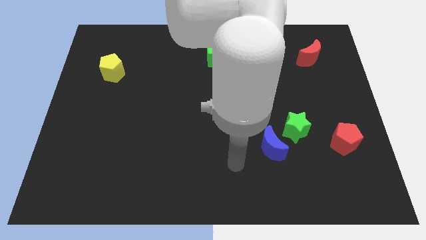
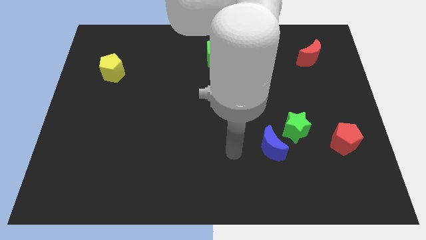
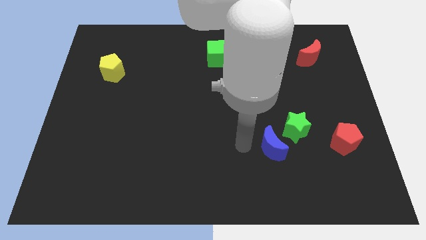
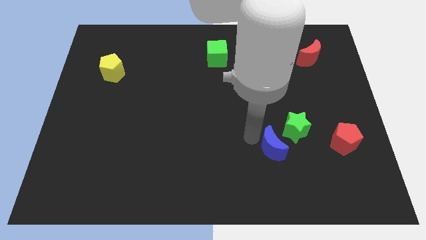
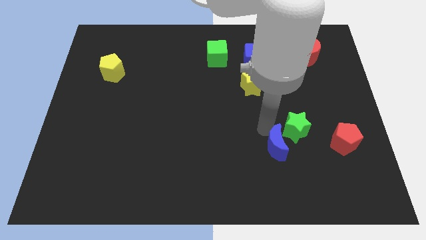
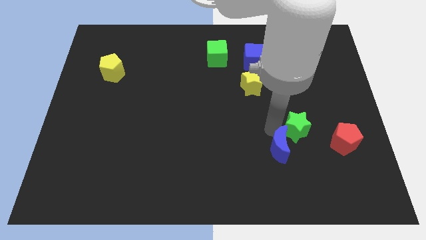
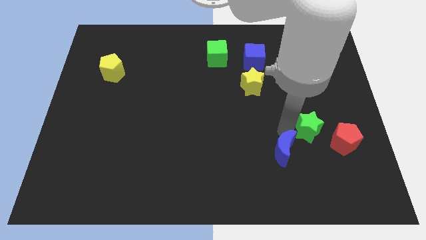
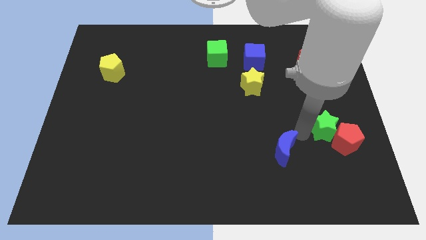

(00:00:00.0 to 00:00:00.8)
move the blue moon away from the green star

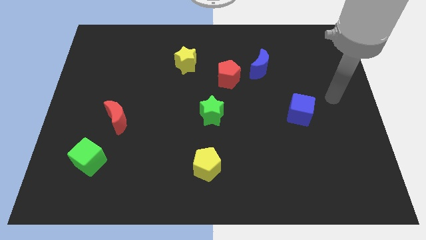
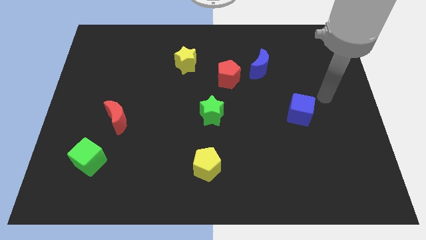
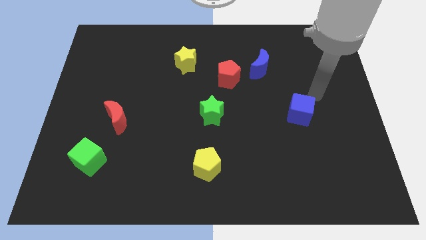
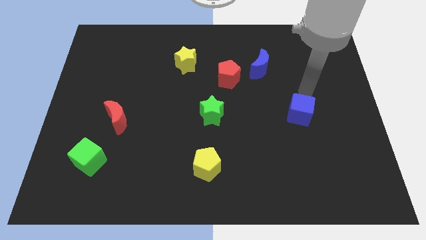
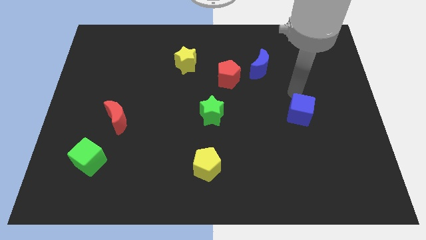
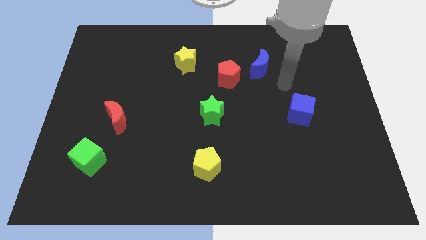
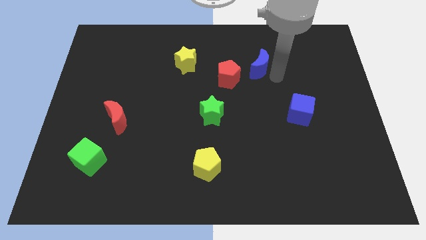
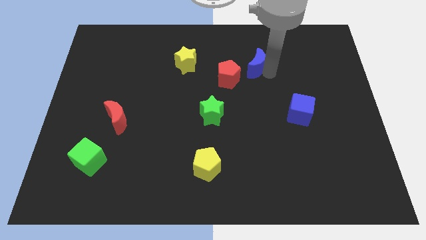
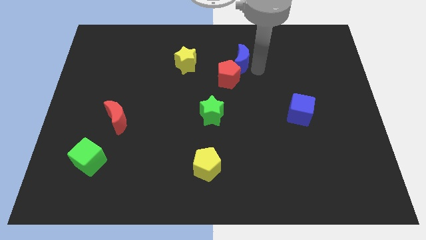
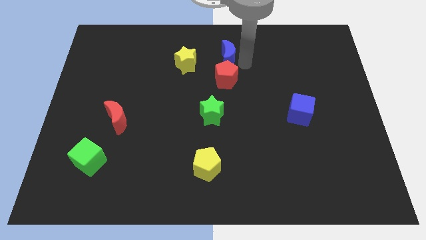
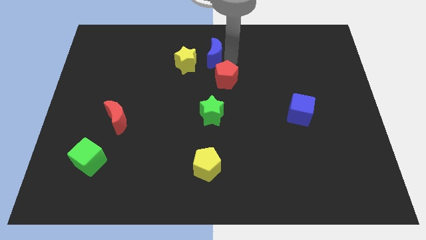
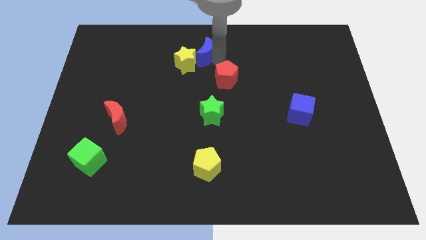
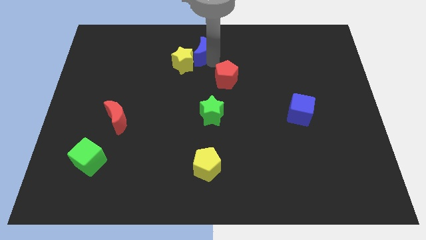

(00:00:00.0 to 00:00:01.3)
separate the red pentagon from the blue moon

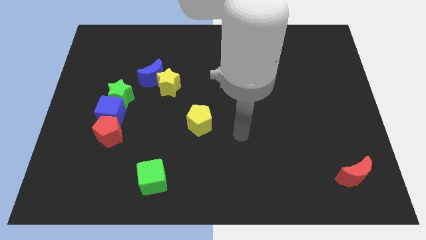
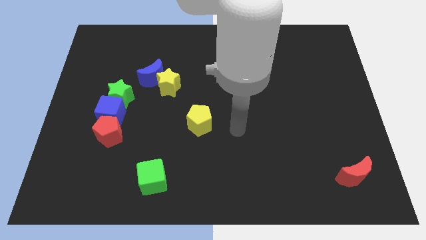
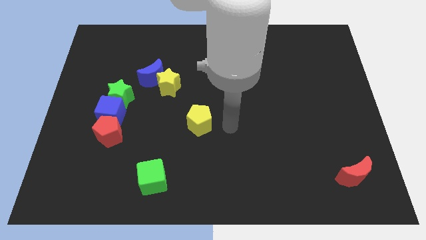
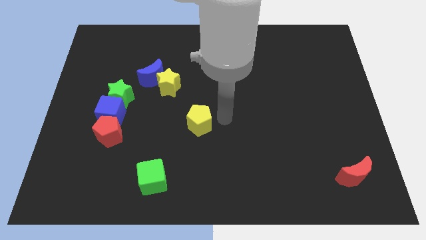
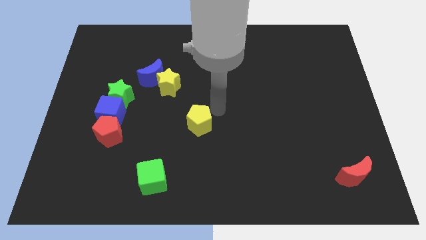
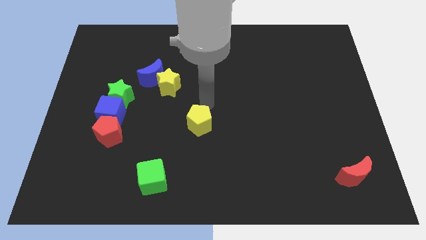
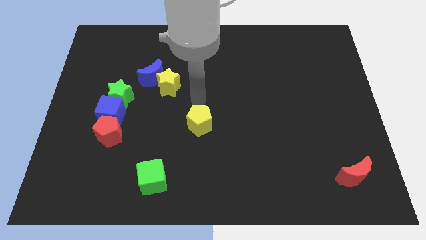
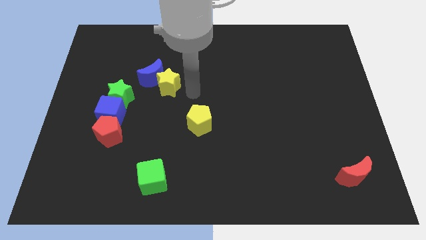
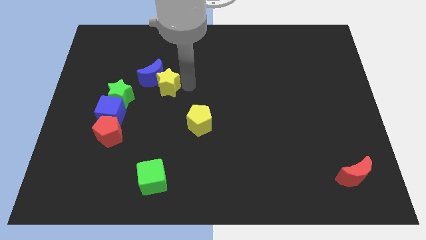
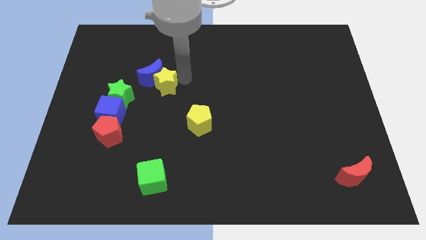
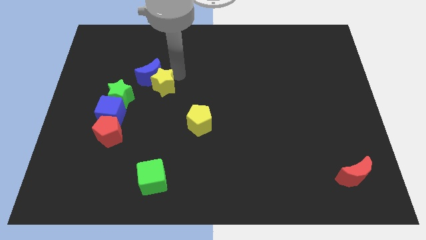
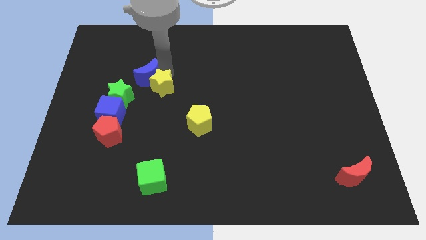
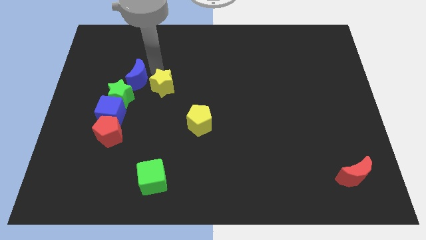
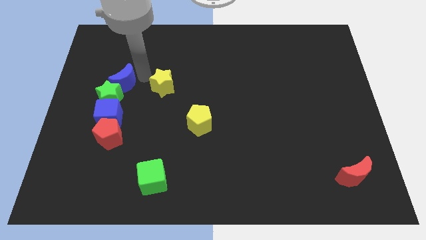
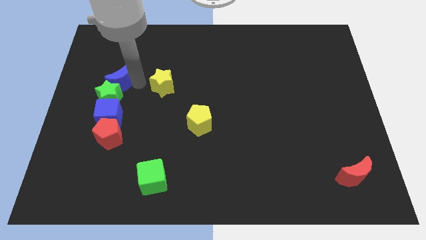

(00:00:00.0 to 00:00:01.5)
pull the yellow star apart from the blue moon

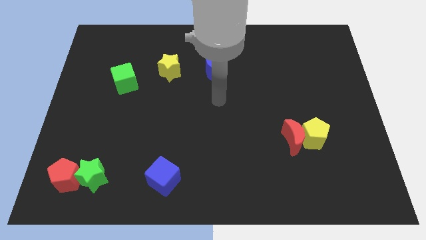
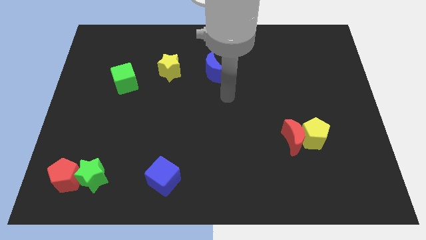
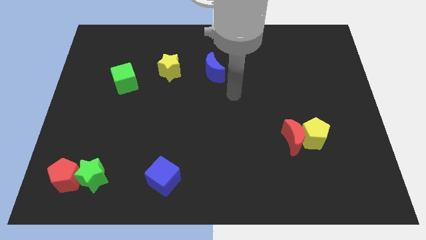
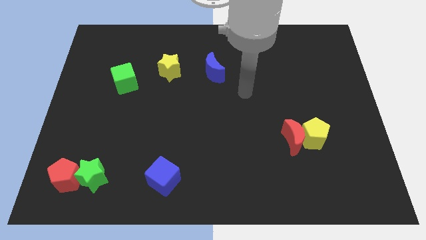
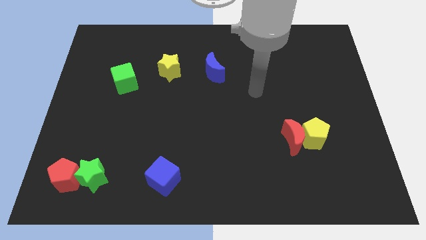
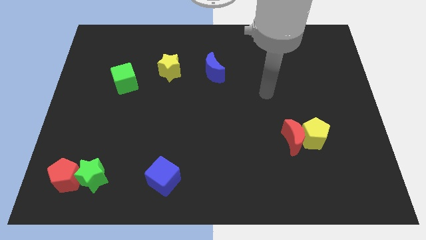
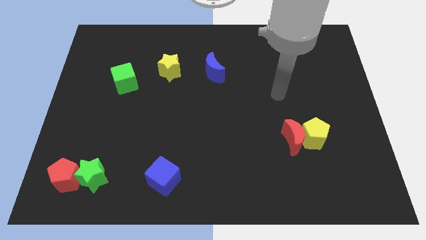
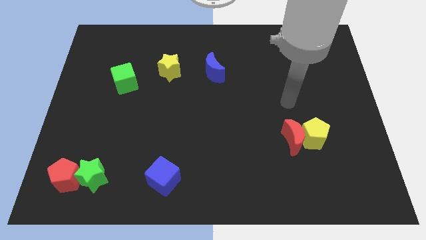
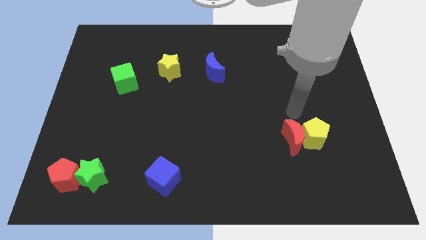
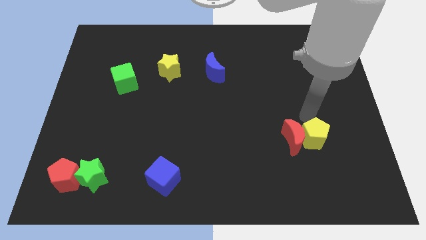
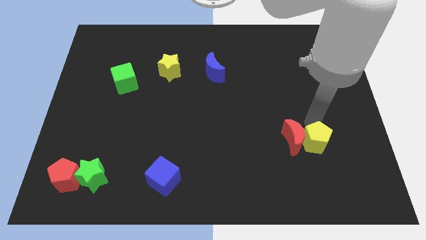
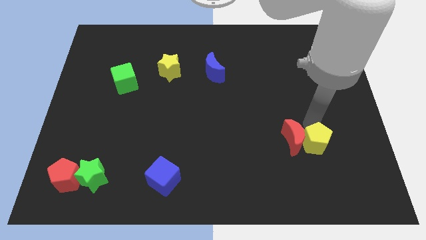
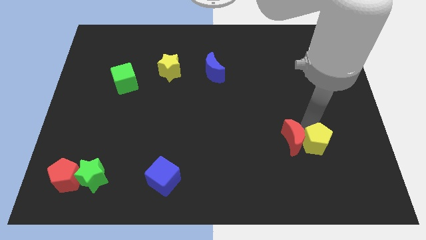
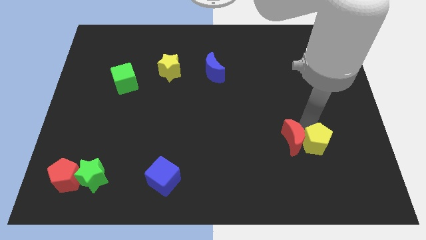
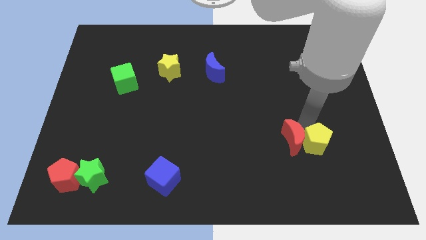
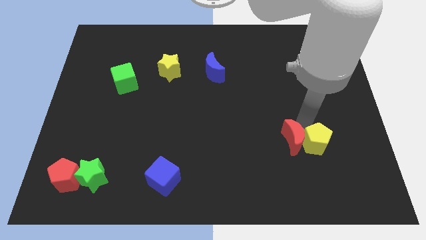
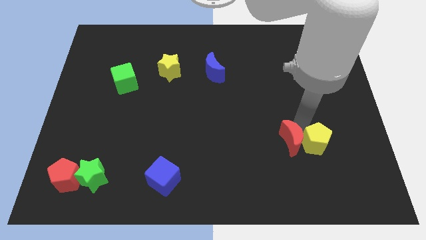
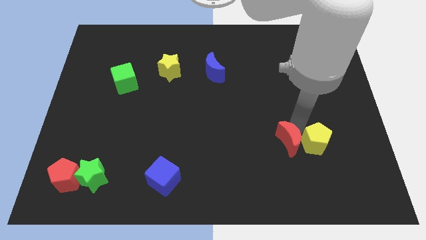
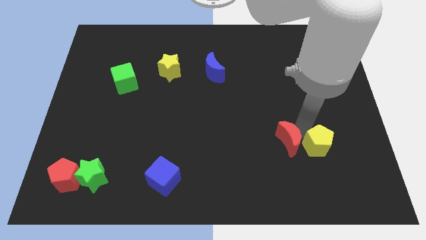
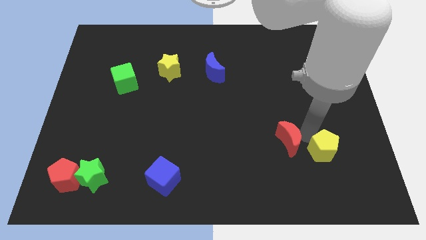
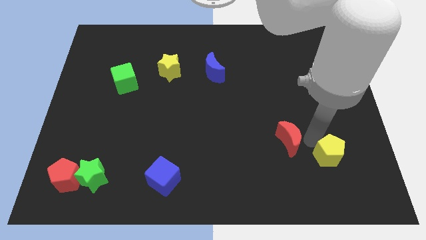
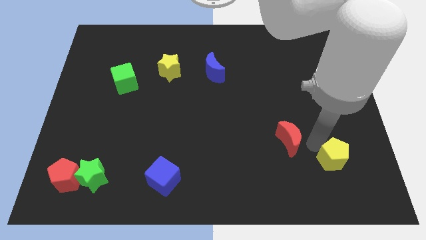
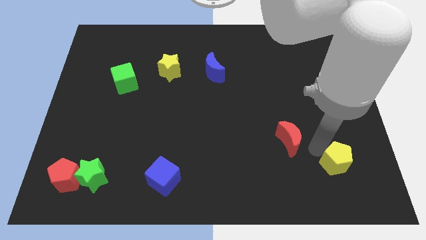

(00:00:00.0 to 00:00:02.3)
pull the red moon apart from the yellow pentagon

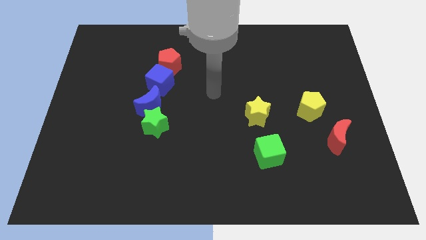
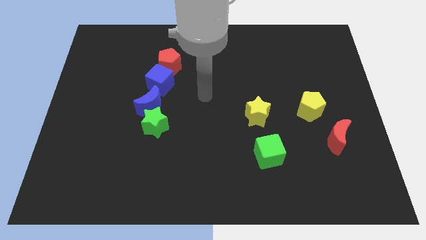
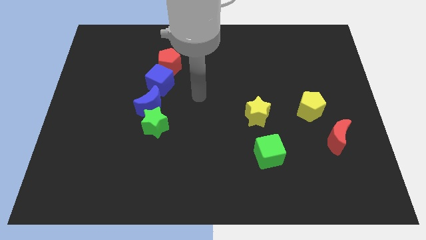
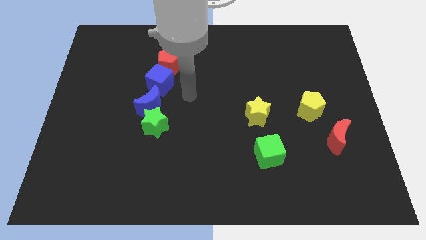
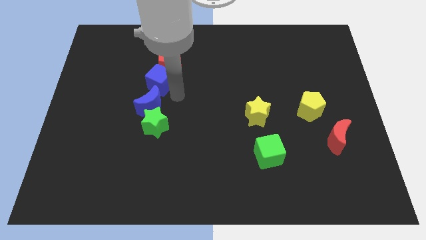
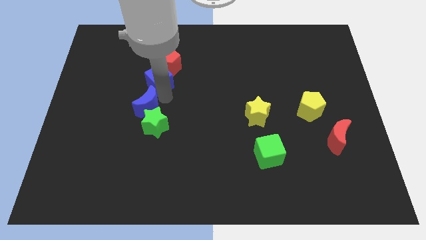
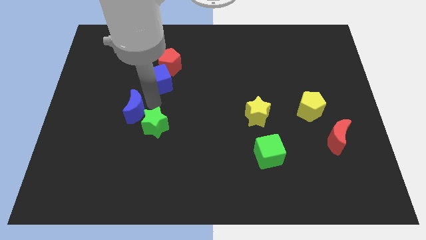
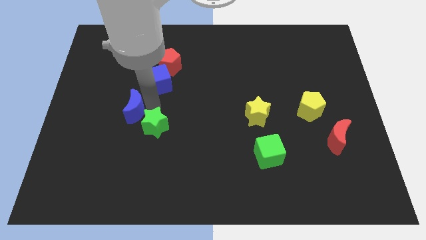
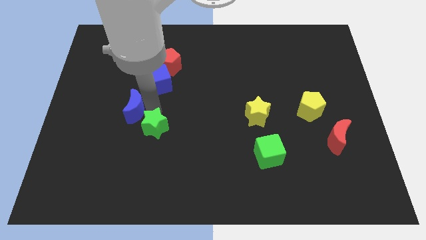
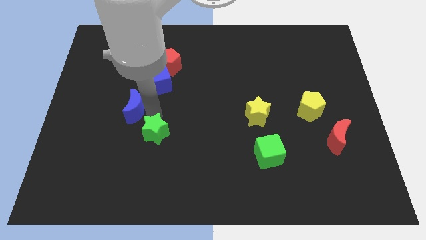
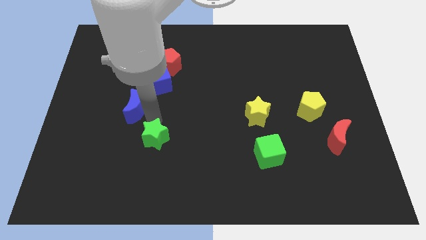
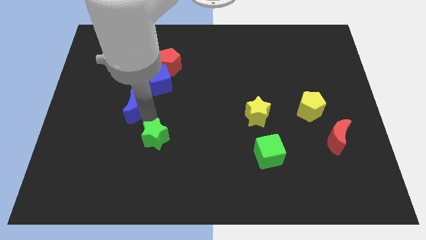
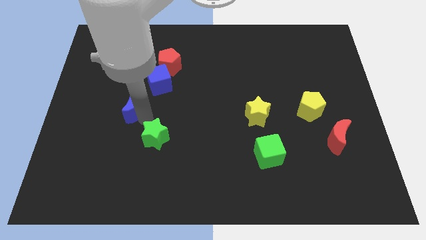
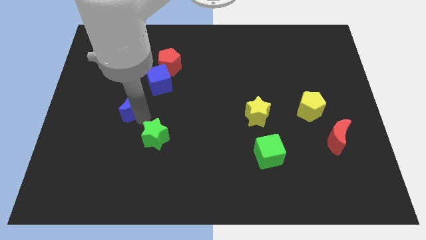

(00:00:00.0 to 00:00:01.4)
move the green star away from the blue moon

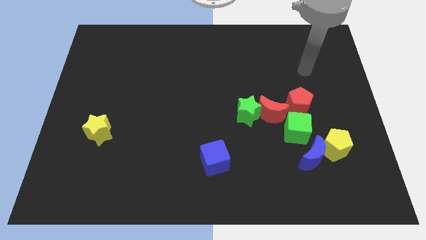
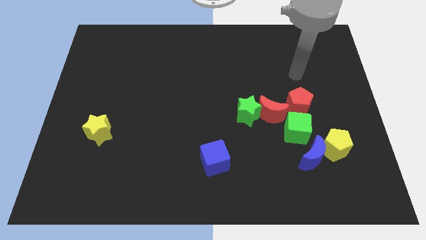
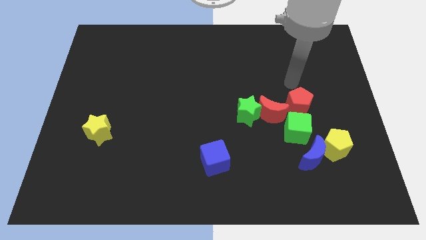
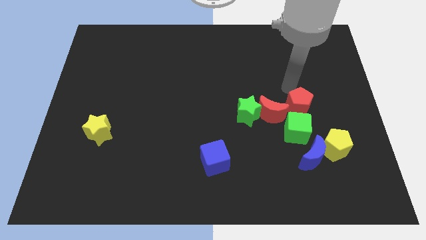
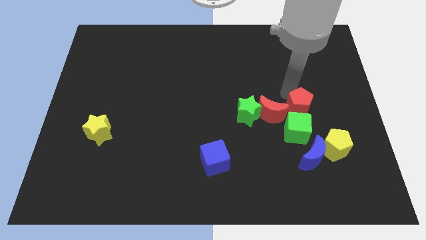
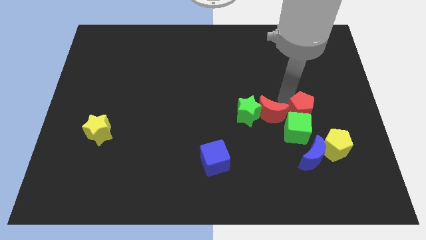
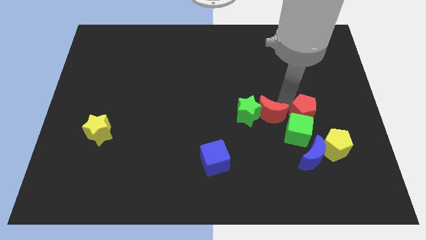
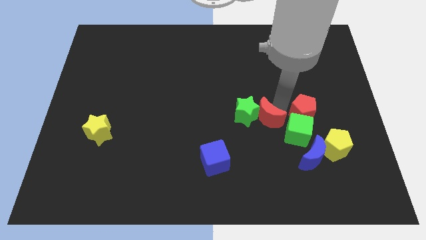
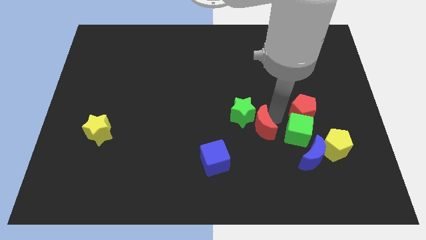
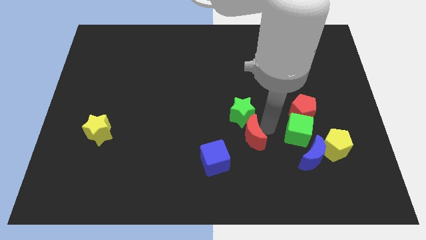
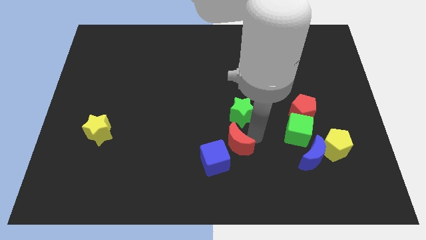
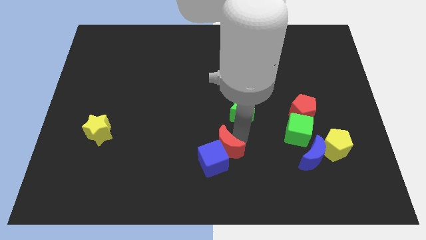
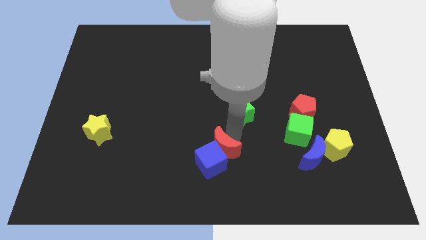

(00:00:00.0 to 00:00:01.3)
separate the green star from the red moon

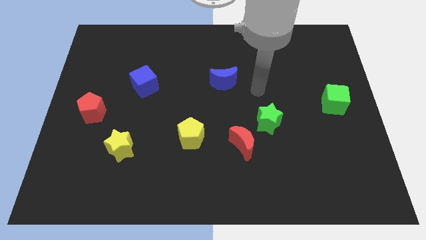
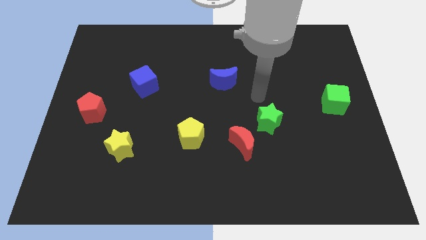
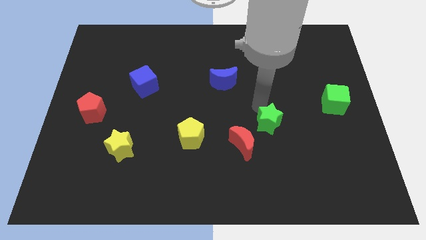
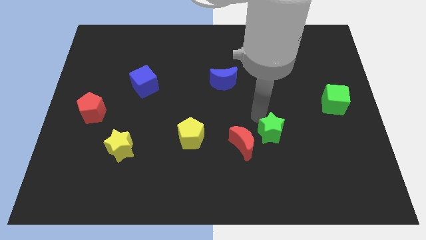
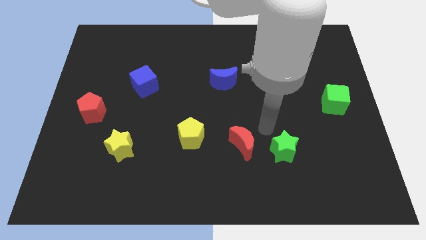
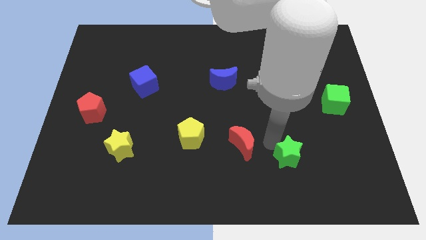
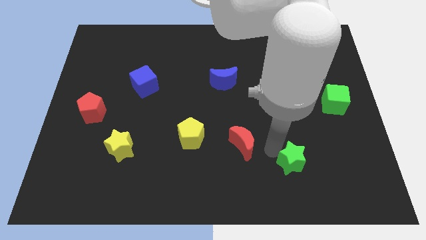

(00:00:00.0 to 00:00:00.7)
pull the red moon apart from the green star

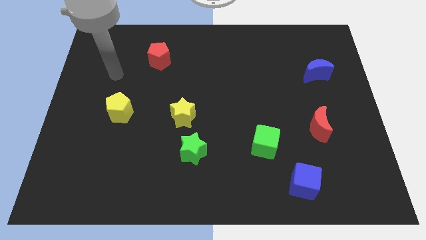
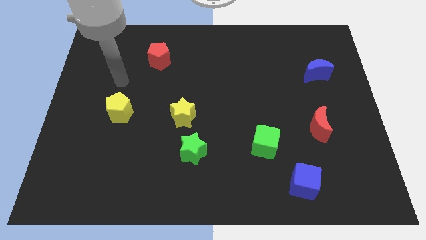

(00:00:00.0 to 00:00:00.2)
separate the green star from the yellow star
